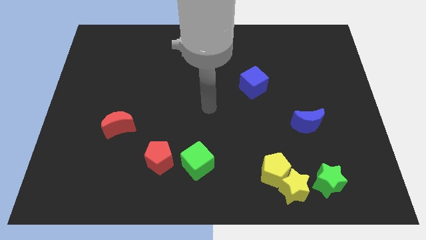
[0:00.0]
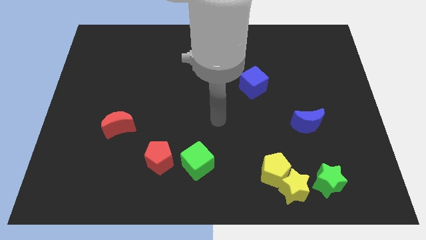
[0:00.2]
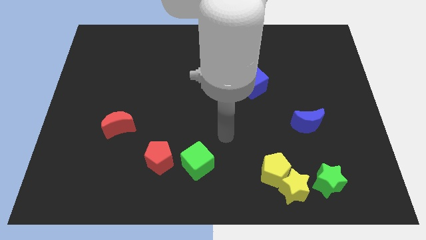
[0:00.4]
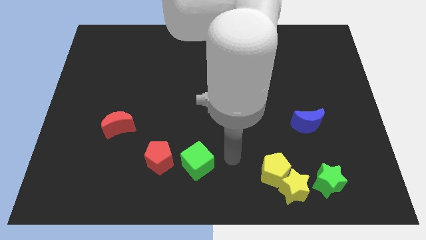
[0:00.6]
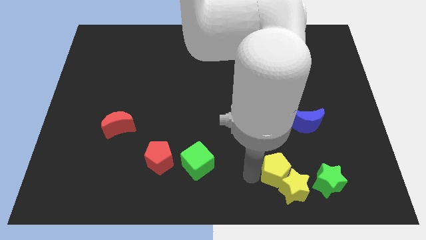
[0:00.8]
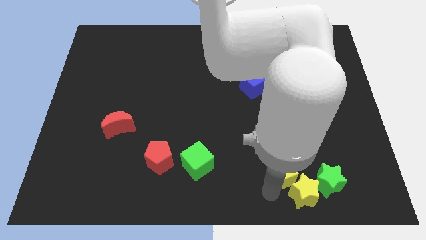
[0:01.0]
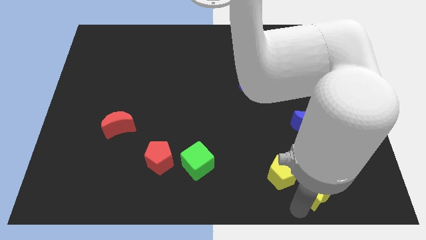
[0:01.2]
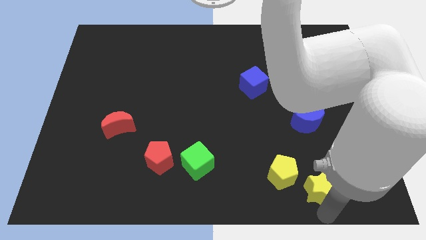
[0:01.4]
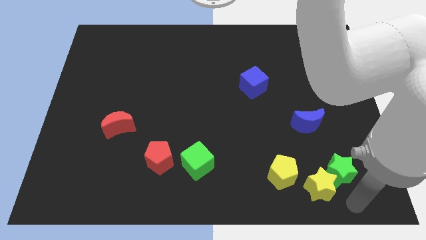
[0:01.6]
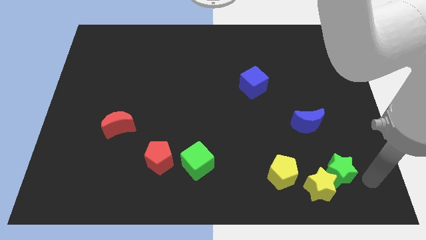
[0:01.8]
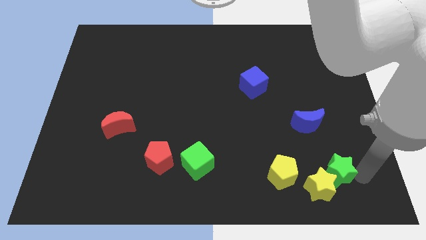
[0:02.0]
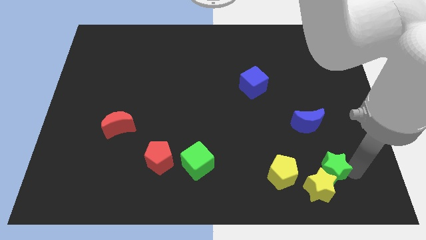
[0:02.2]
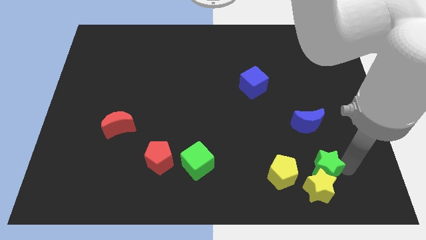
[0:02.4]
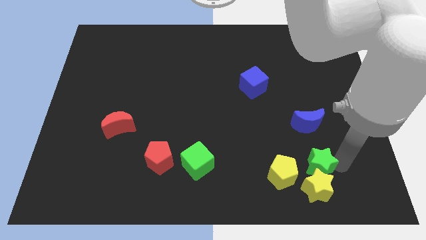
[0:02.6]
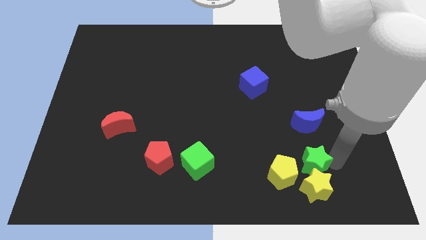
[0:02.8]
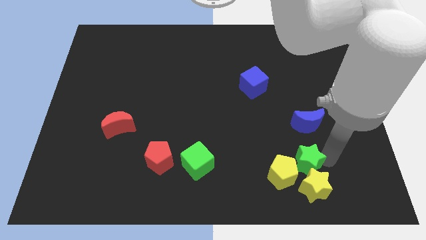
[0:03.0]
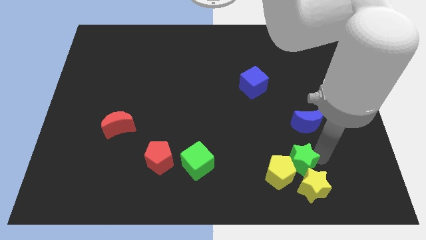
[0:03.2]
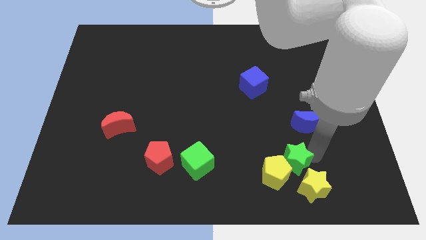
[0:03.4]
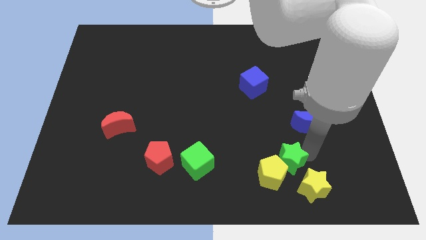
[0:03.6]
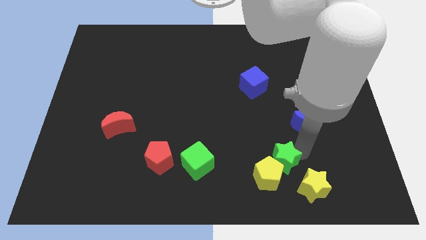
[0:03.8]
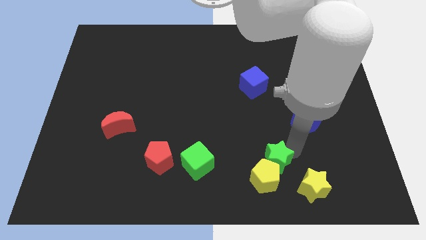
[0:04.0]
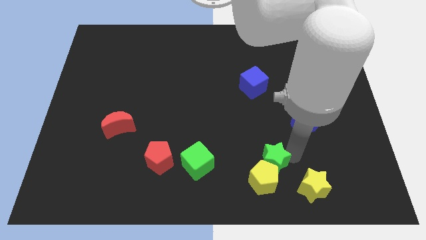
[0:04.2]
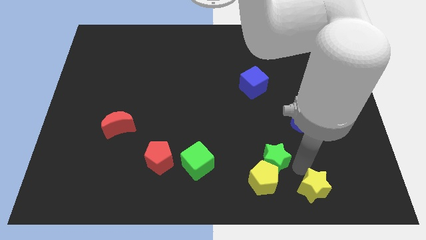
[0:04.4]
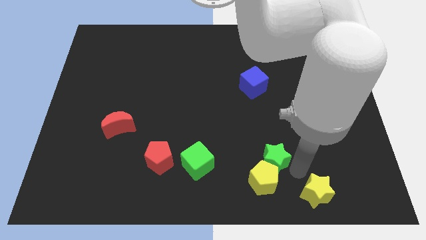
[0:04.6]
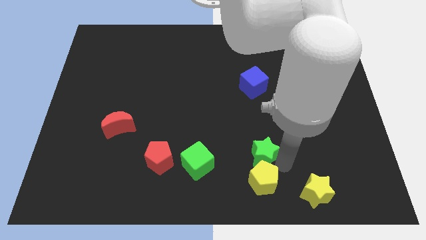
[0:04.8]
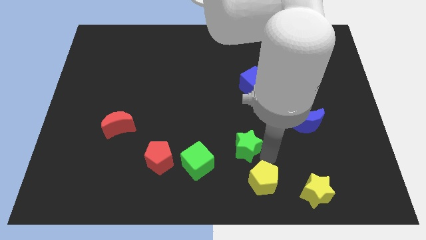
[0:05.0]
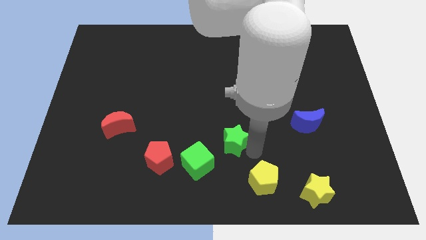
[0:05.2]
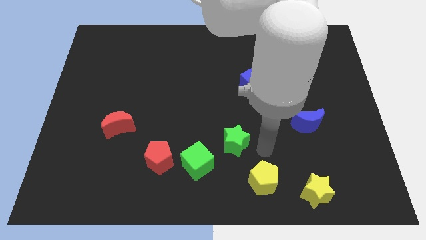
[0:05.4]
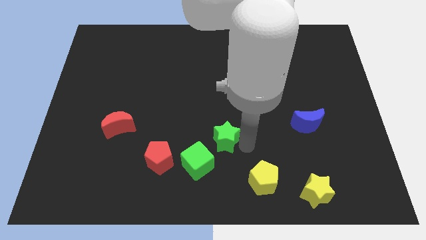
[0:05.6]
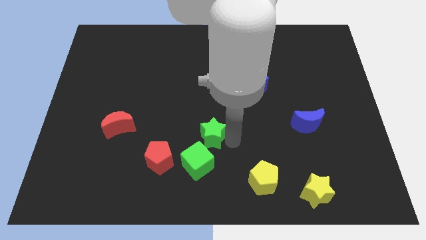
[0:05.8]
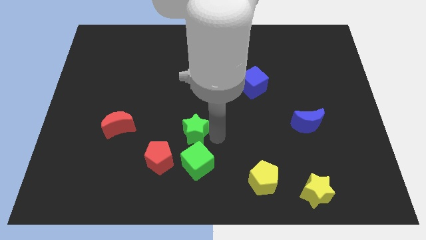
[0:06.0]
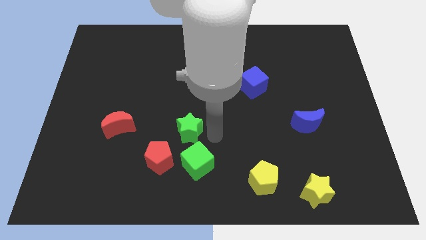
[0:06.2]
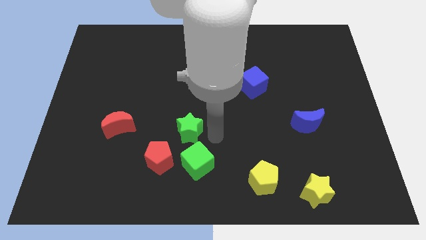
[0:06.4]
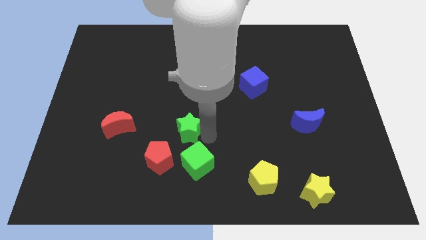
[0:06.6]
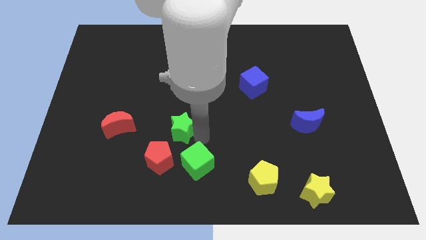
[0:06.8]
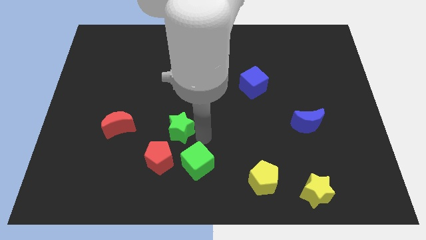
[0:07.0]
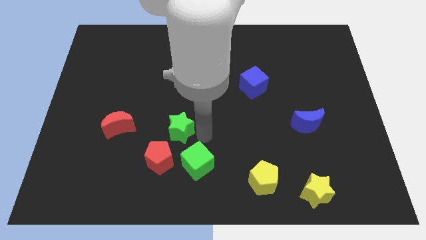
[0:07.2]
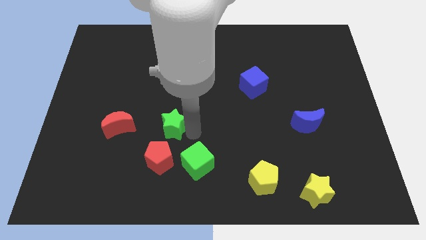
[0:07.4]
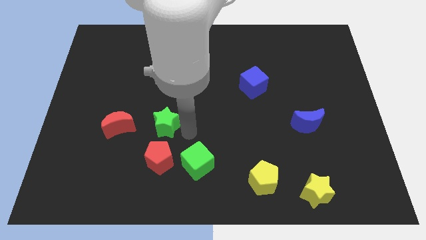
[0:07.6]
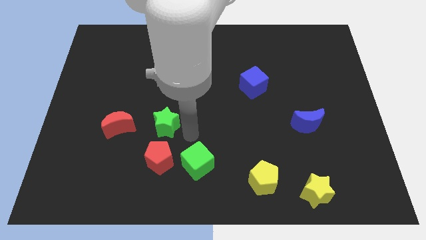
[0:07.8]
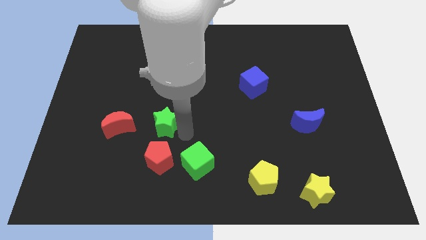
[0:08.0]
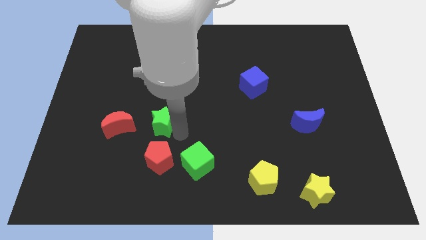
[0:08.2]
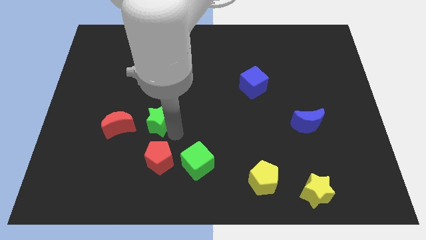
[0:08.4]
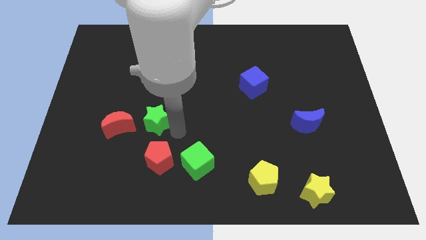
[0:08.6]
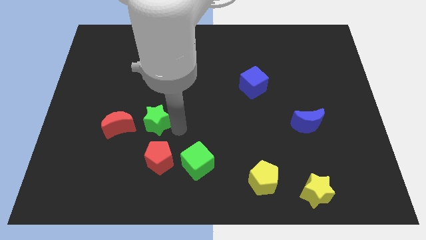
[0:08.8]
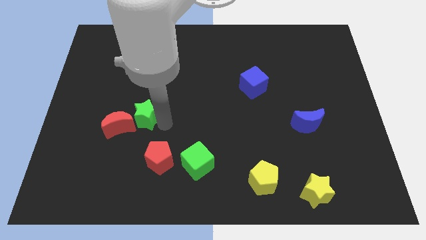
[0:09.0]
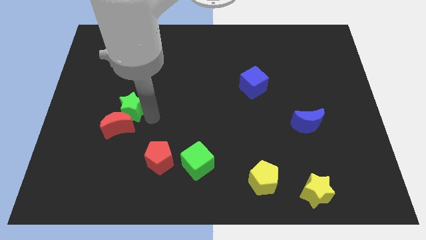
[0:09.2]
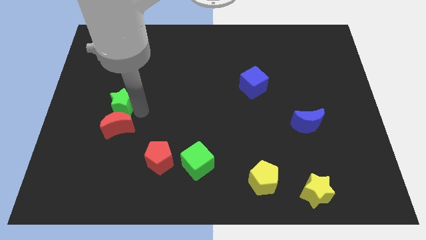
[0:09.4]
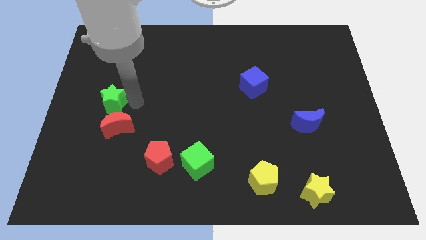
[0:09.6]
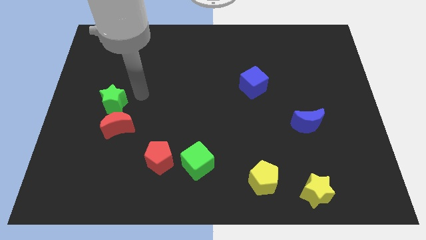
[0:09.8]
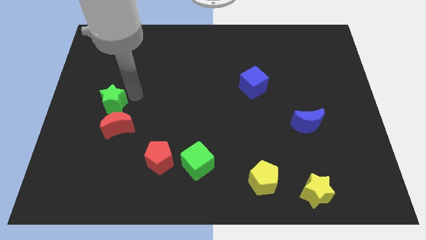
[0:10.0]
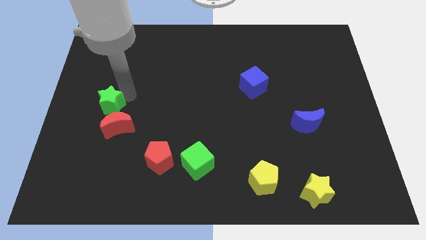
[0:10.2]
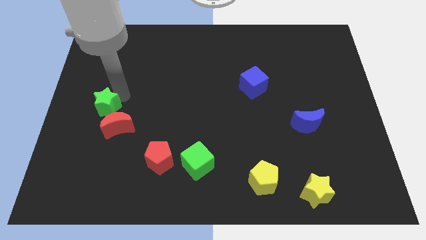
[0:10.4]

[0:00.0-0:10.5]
put the green star to the left side

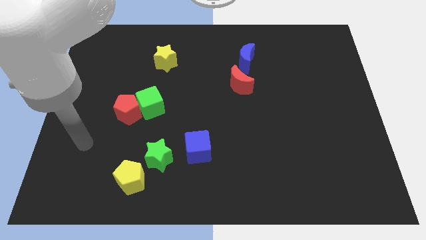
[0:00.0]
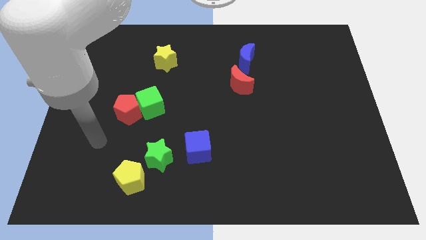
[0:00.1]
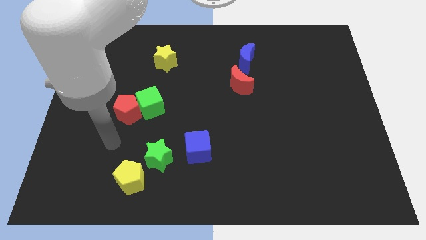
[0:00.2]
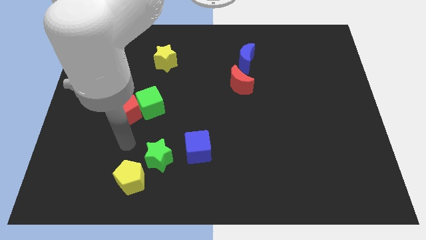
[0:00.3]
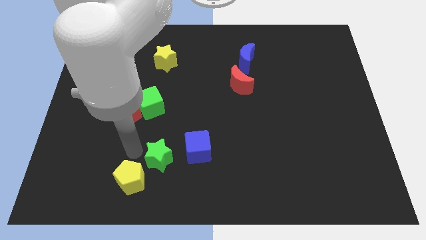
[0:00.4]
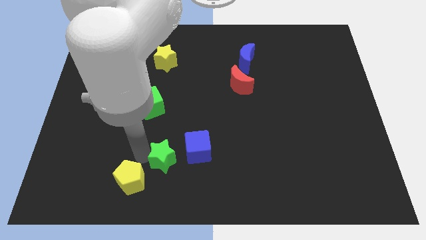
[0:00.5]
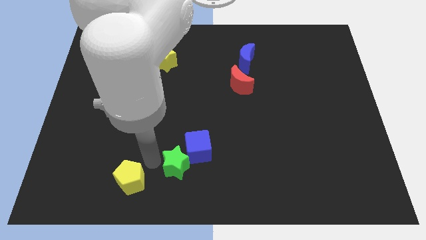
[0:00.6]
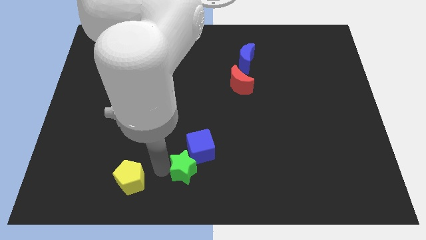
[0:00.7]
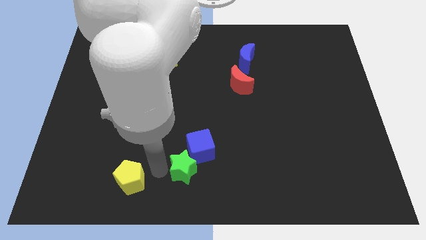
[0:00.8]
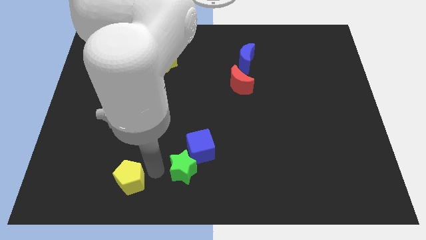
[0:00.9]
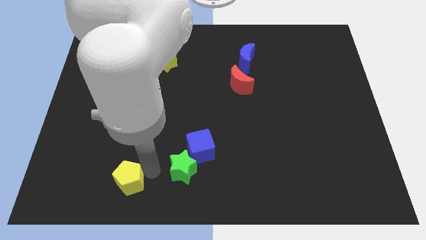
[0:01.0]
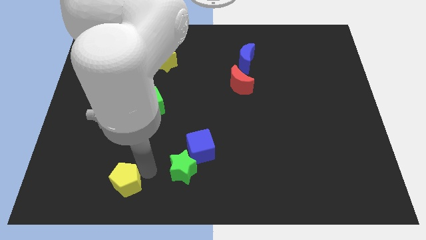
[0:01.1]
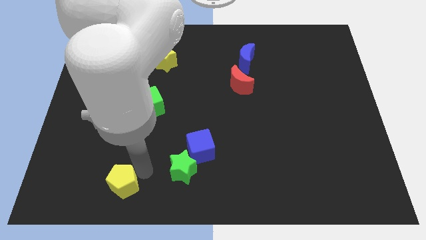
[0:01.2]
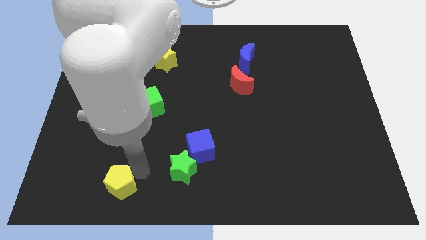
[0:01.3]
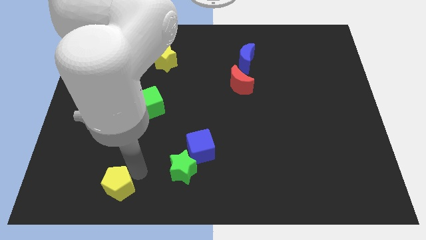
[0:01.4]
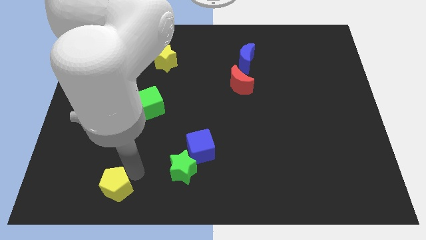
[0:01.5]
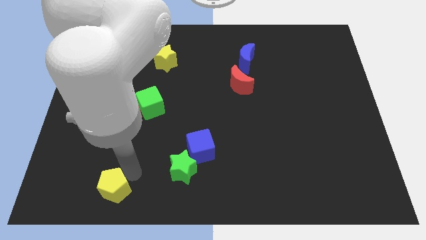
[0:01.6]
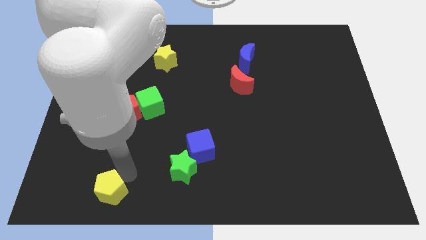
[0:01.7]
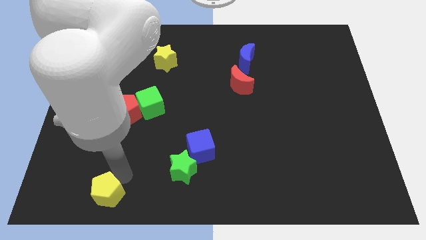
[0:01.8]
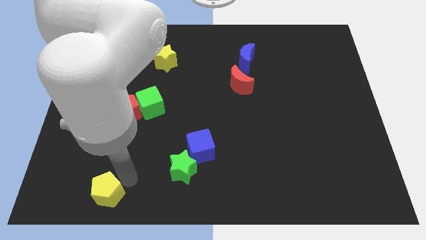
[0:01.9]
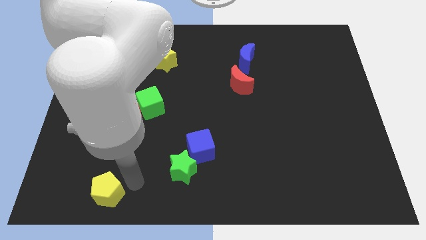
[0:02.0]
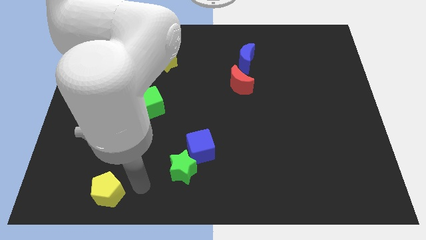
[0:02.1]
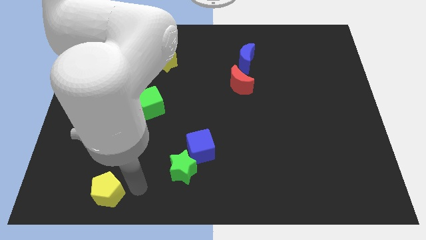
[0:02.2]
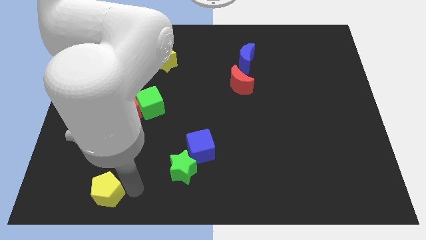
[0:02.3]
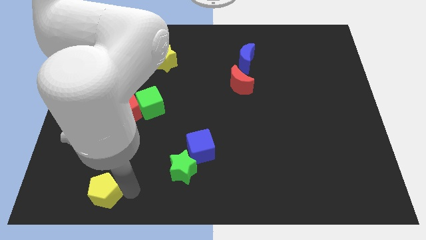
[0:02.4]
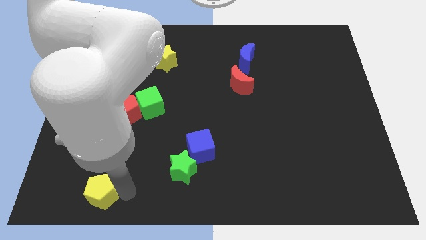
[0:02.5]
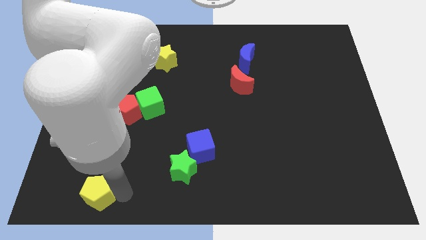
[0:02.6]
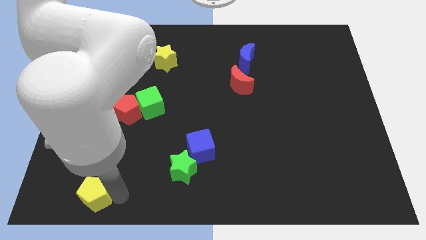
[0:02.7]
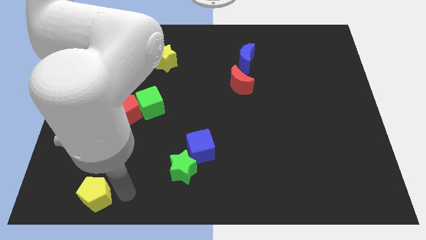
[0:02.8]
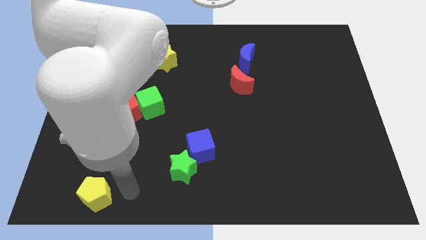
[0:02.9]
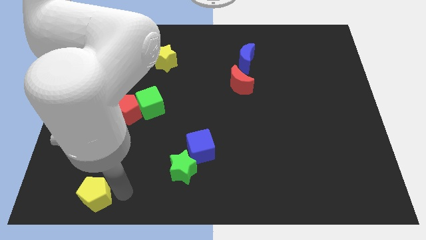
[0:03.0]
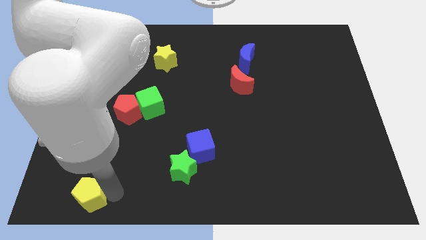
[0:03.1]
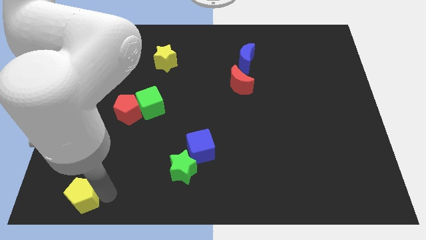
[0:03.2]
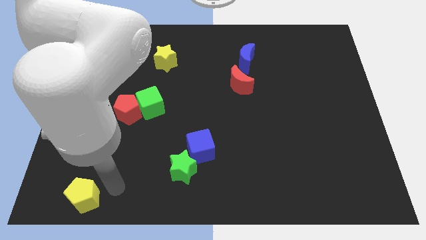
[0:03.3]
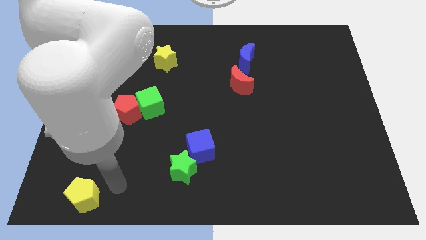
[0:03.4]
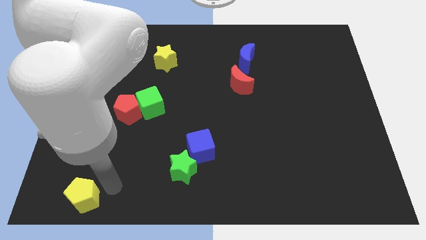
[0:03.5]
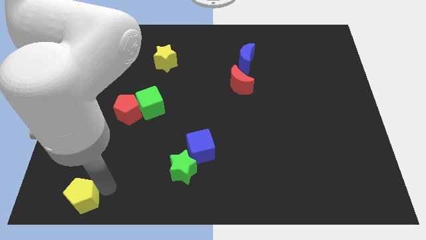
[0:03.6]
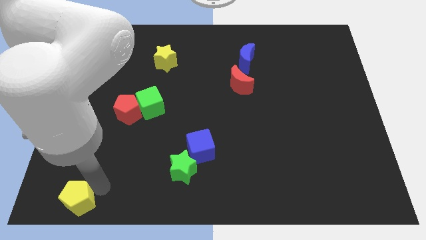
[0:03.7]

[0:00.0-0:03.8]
move the yellow pentagon to the bottom left of the board
